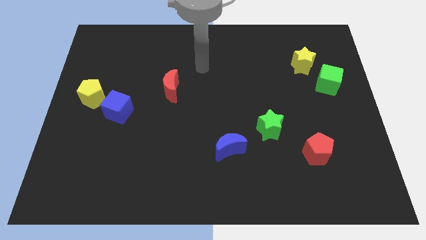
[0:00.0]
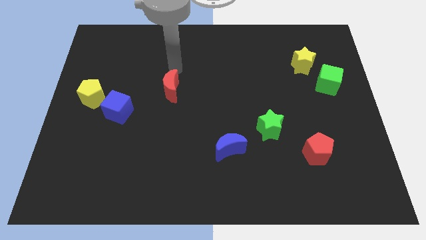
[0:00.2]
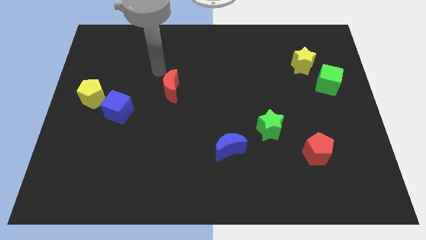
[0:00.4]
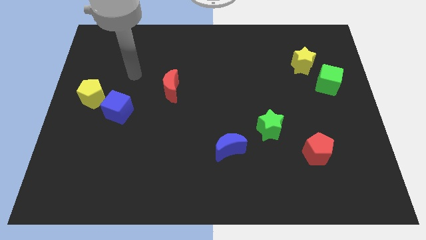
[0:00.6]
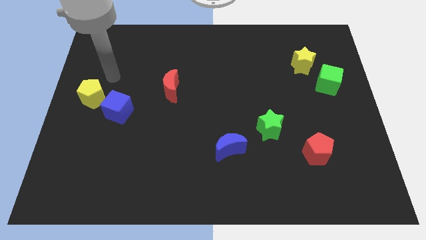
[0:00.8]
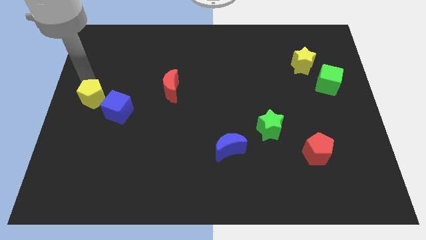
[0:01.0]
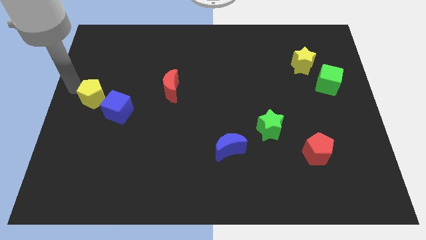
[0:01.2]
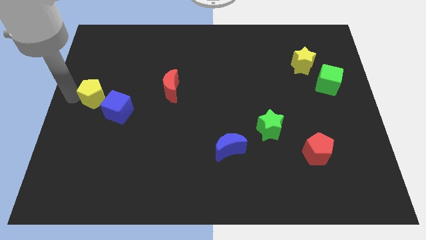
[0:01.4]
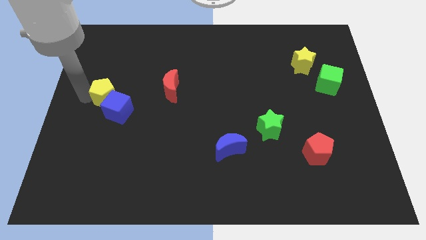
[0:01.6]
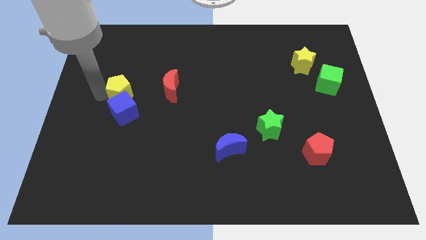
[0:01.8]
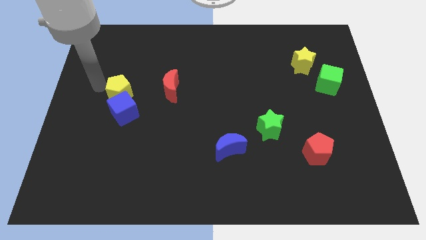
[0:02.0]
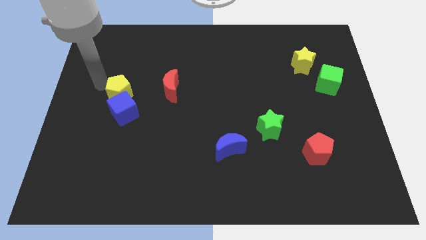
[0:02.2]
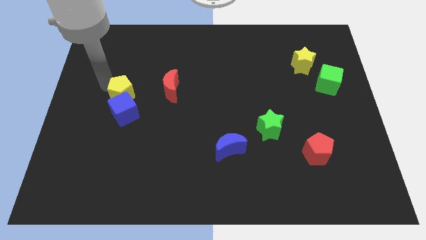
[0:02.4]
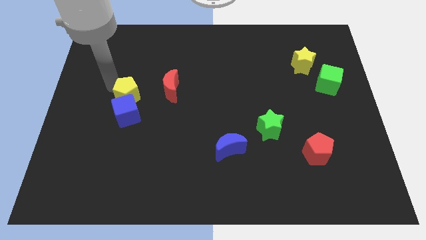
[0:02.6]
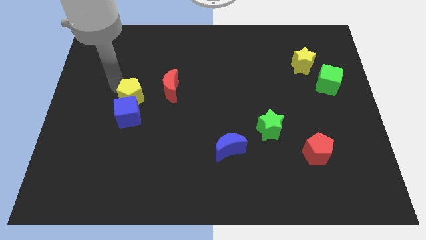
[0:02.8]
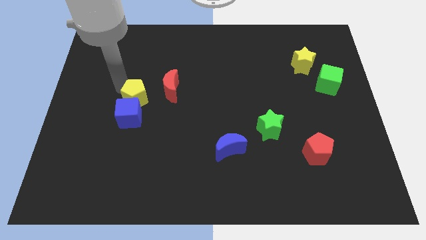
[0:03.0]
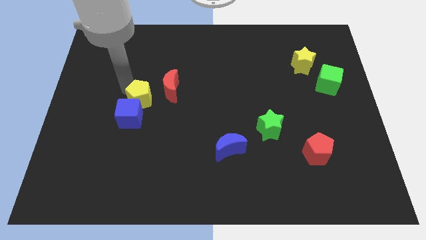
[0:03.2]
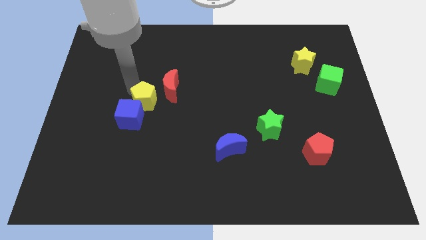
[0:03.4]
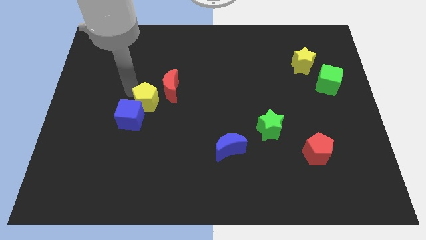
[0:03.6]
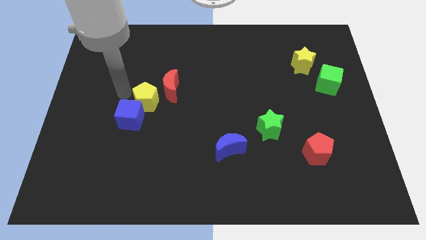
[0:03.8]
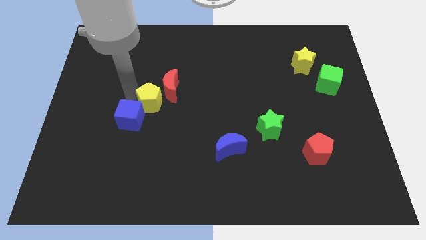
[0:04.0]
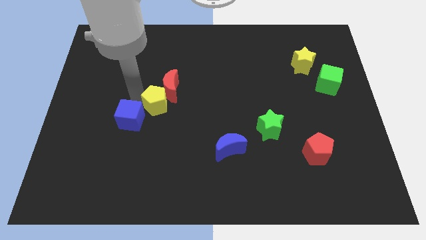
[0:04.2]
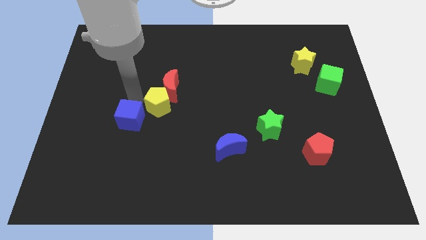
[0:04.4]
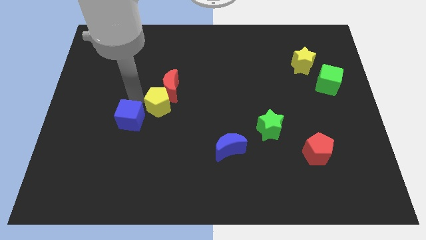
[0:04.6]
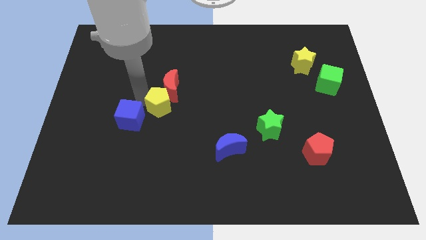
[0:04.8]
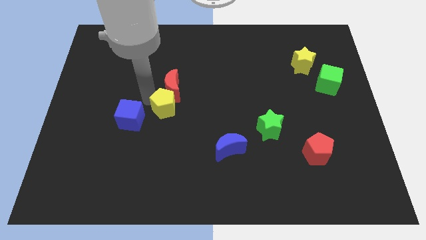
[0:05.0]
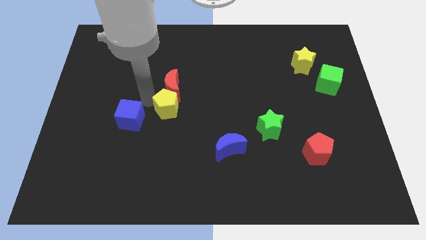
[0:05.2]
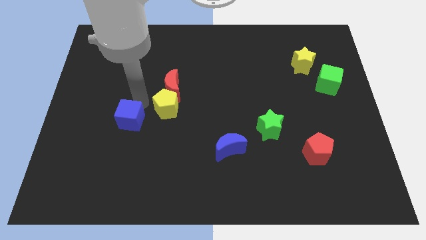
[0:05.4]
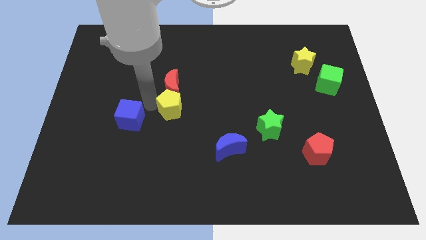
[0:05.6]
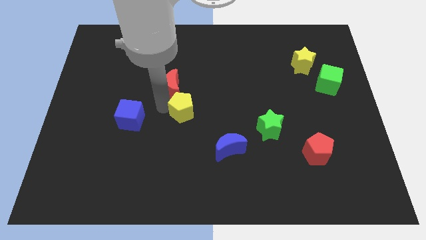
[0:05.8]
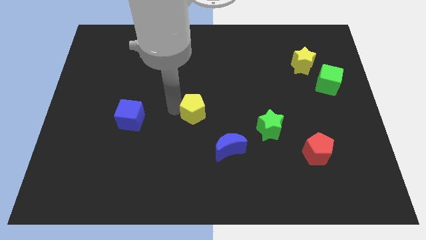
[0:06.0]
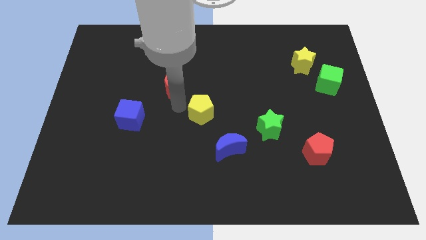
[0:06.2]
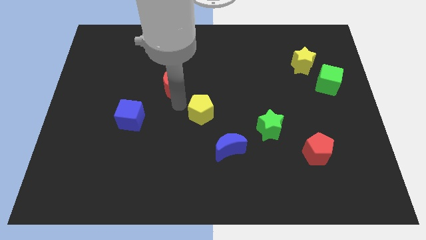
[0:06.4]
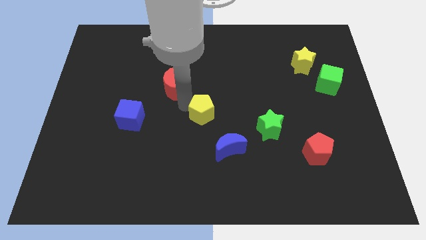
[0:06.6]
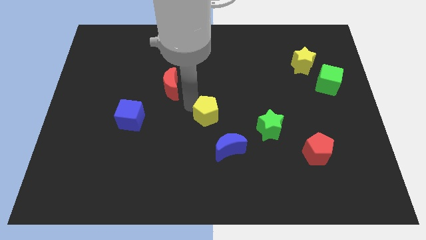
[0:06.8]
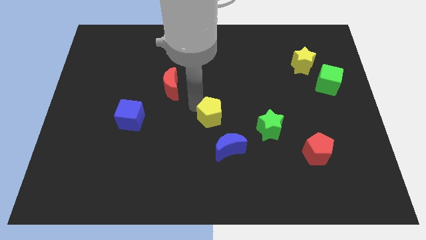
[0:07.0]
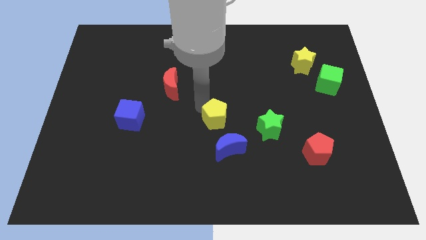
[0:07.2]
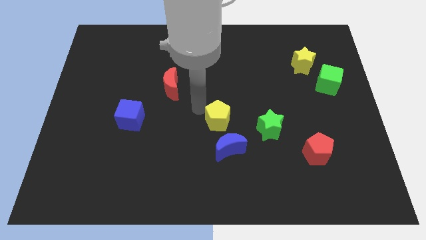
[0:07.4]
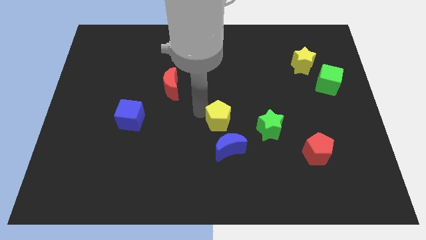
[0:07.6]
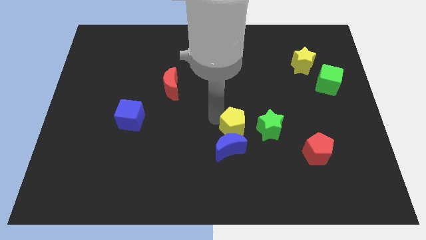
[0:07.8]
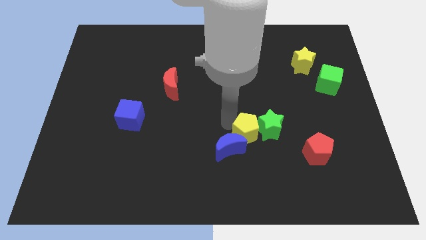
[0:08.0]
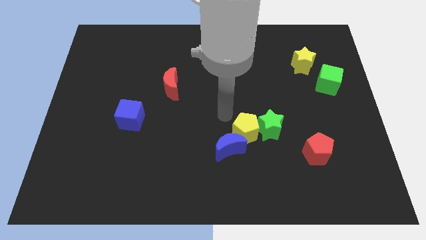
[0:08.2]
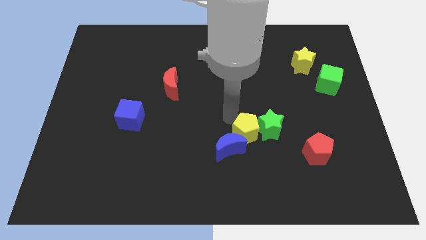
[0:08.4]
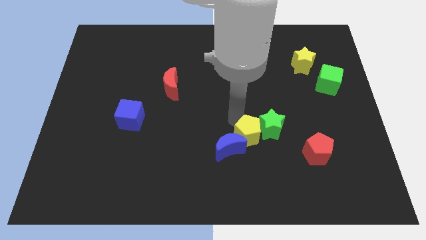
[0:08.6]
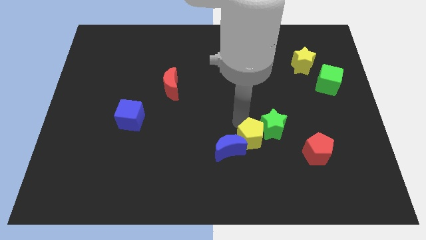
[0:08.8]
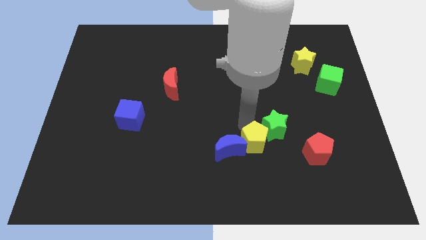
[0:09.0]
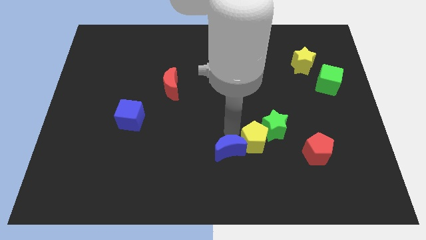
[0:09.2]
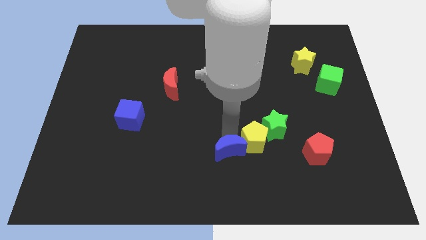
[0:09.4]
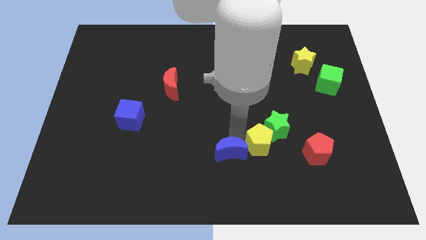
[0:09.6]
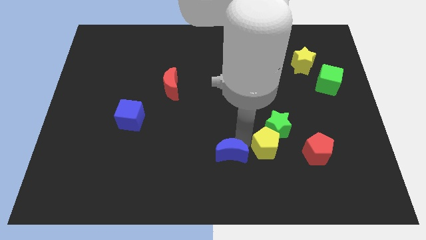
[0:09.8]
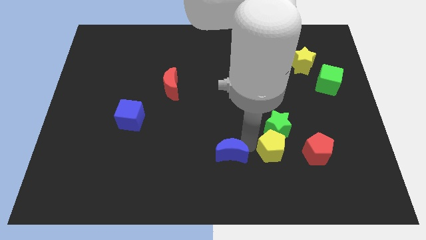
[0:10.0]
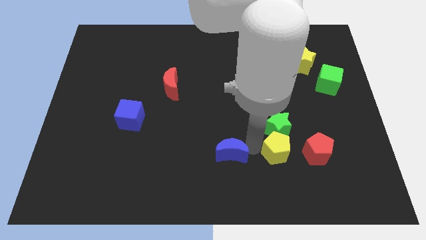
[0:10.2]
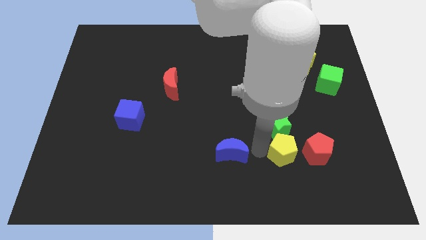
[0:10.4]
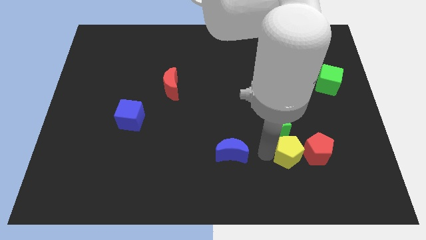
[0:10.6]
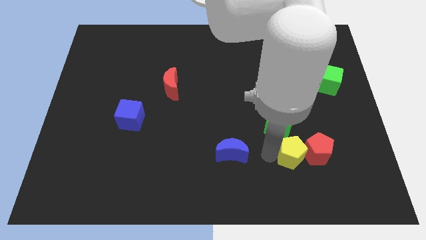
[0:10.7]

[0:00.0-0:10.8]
put the yellow pentagon towards the red pentagon

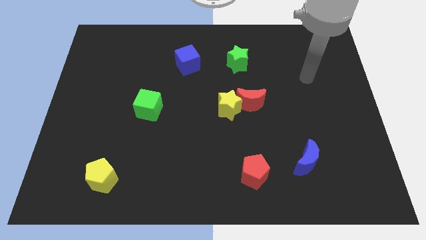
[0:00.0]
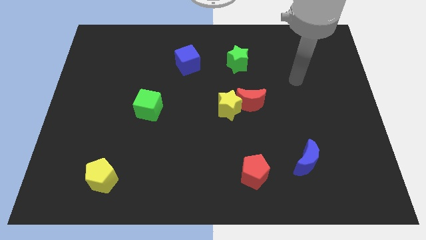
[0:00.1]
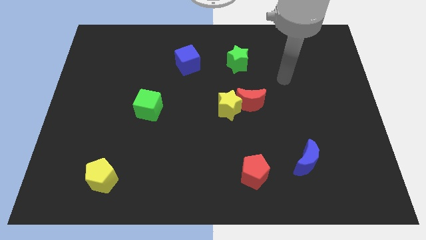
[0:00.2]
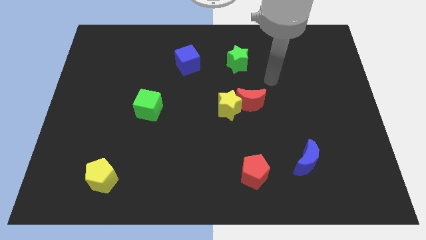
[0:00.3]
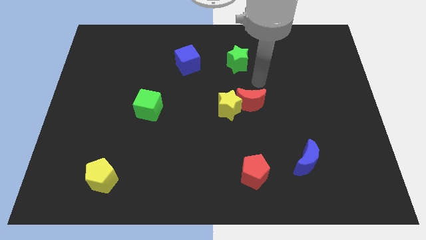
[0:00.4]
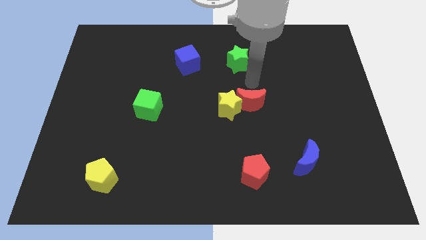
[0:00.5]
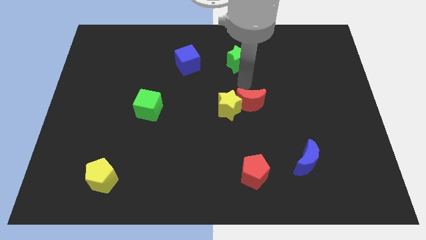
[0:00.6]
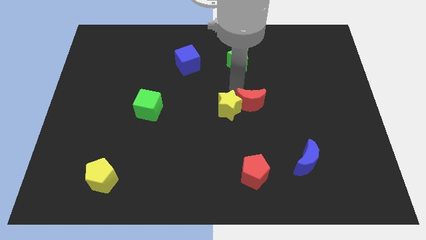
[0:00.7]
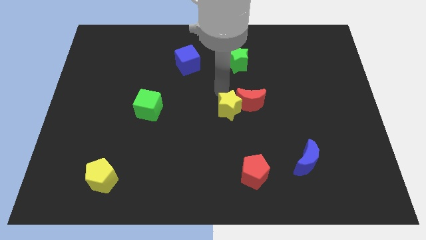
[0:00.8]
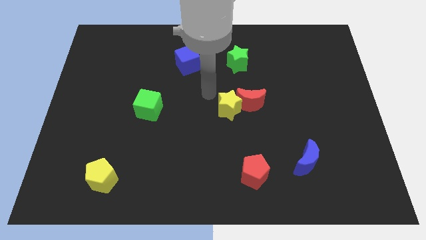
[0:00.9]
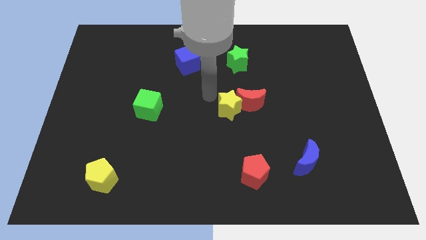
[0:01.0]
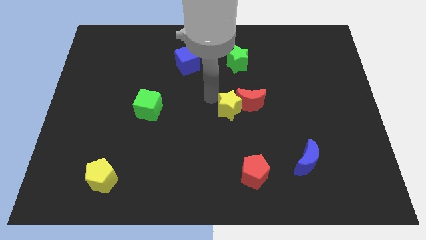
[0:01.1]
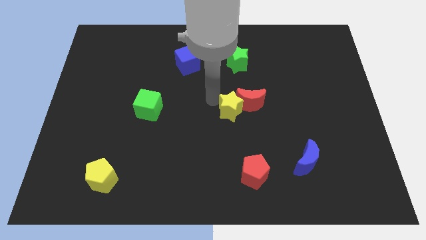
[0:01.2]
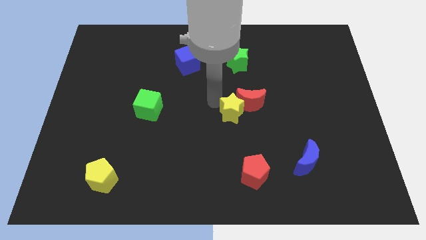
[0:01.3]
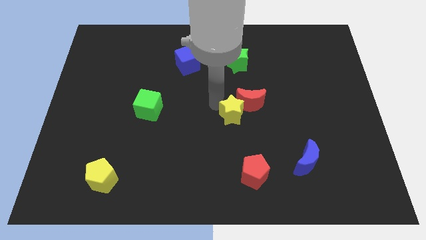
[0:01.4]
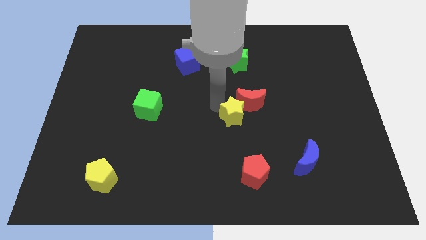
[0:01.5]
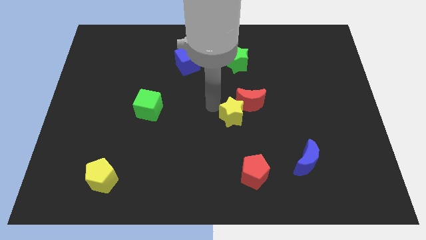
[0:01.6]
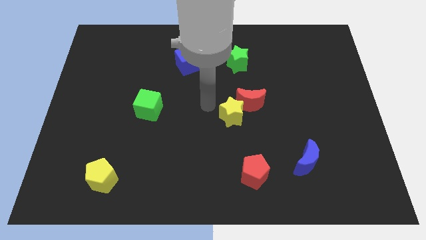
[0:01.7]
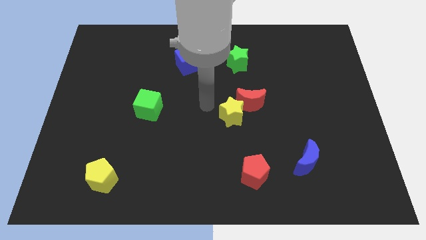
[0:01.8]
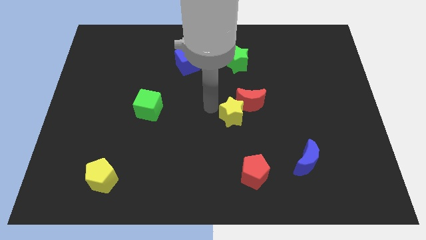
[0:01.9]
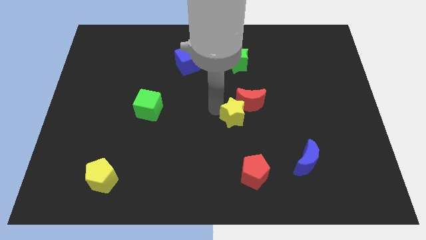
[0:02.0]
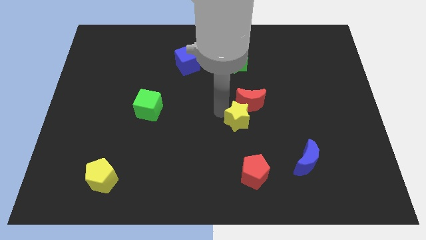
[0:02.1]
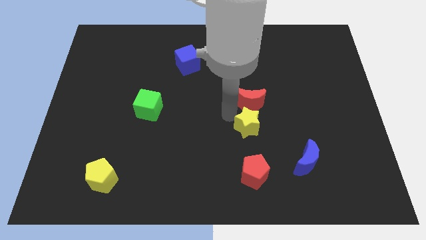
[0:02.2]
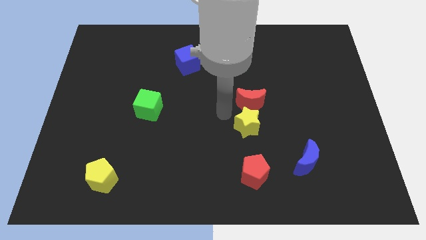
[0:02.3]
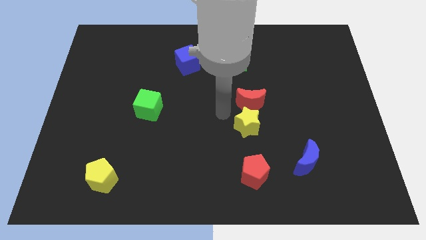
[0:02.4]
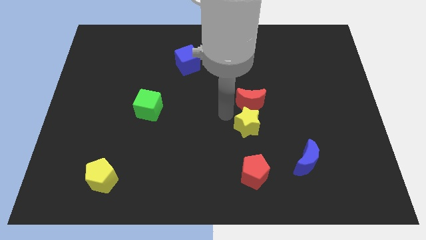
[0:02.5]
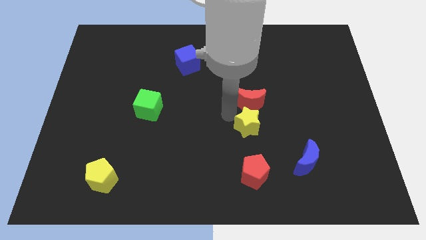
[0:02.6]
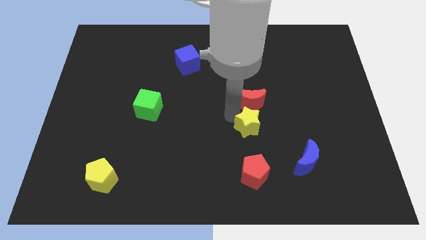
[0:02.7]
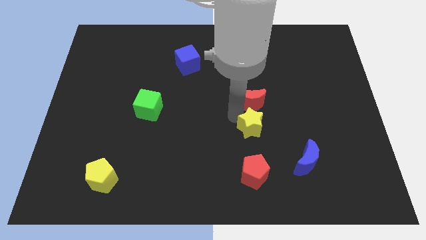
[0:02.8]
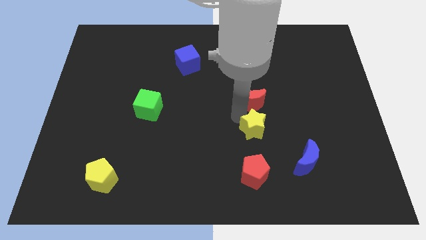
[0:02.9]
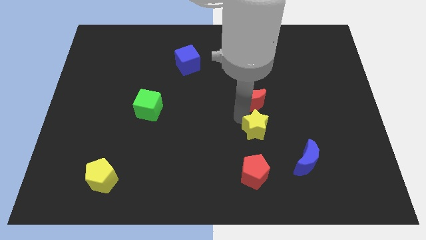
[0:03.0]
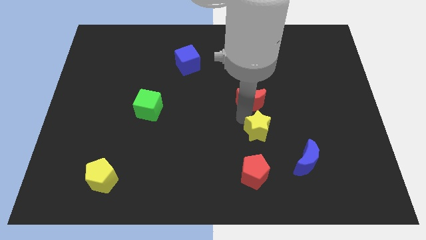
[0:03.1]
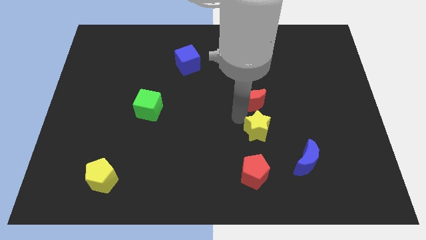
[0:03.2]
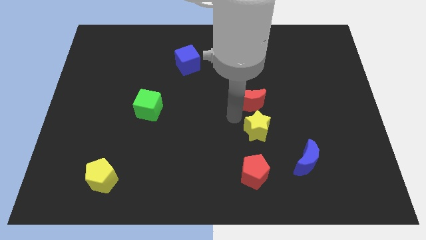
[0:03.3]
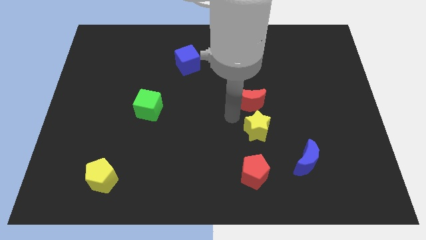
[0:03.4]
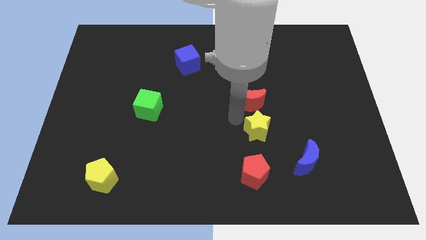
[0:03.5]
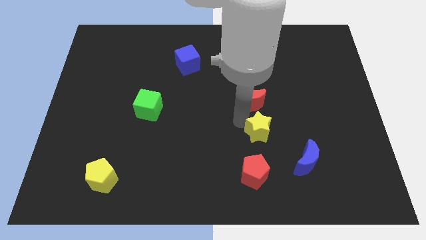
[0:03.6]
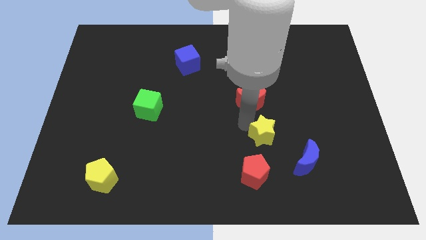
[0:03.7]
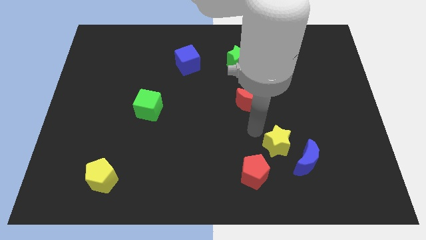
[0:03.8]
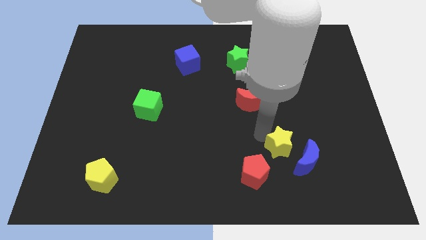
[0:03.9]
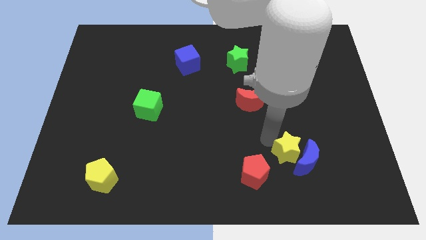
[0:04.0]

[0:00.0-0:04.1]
push the yellow star to the blue moon
